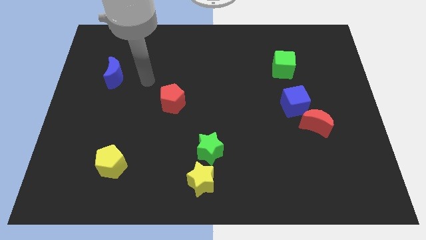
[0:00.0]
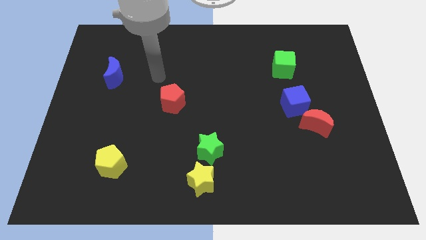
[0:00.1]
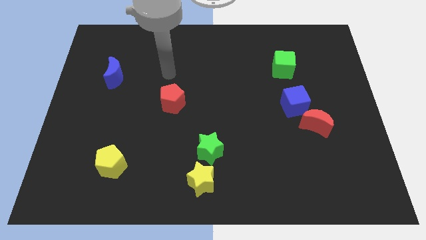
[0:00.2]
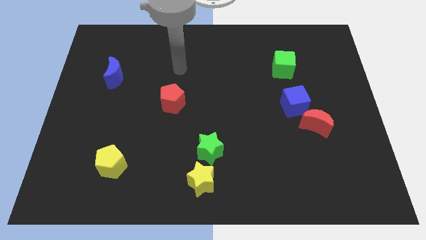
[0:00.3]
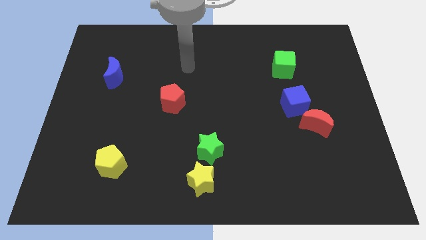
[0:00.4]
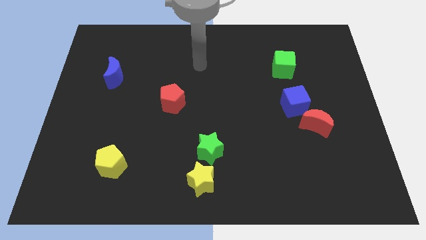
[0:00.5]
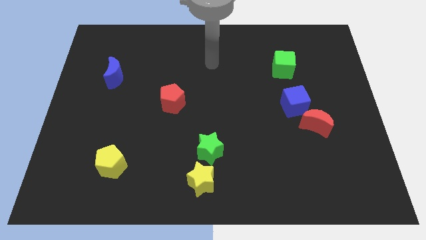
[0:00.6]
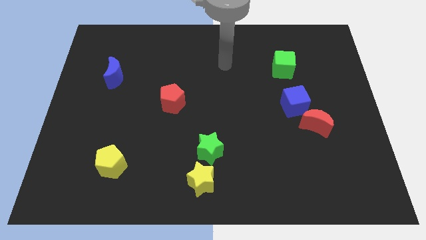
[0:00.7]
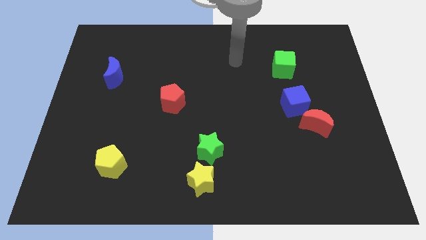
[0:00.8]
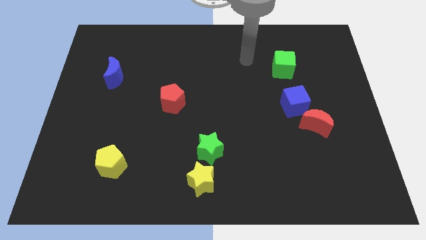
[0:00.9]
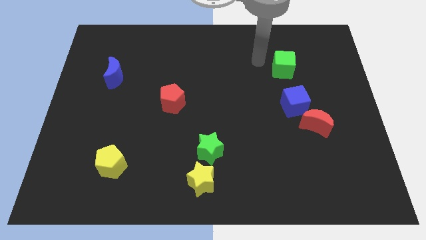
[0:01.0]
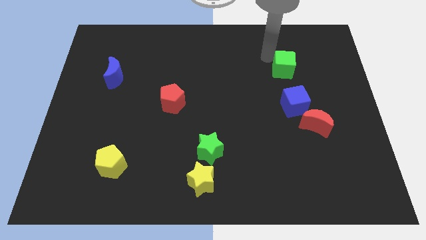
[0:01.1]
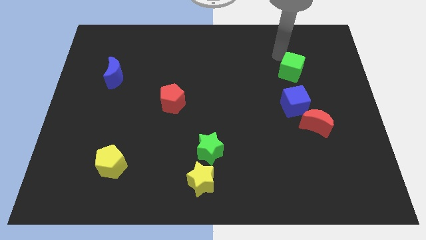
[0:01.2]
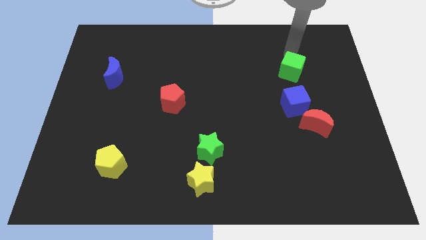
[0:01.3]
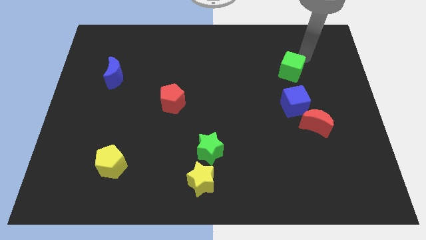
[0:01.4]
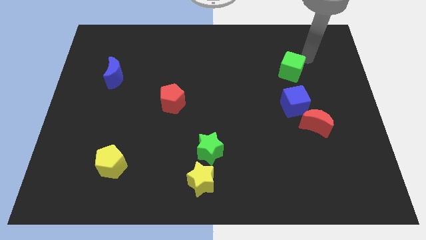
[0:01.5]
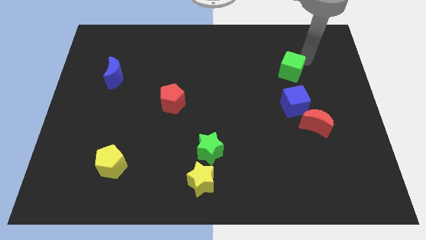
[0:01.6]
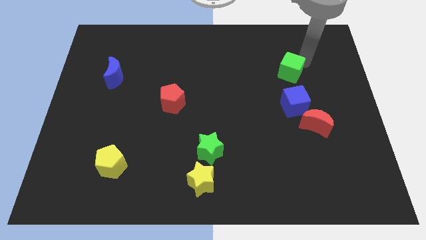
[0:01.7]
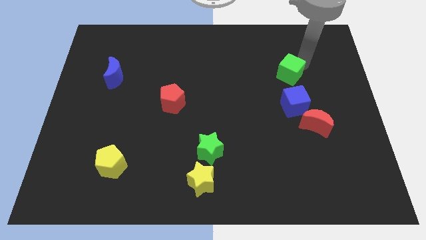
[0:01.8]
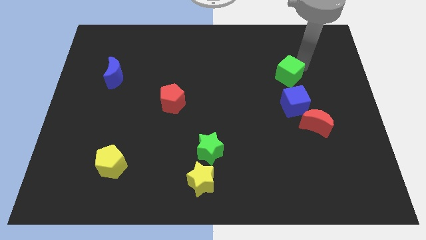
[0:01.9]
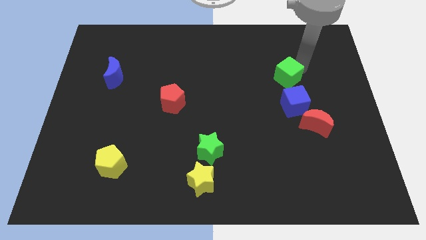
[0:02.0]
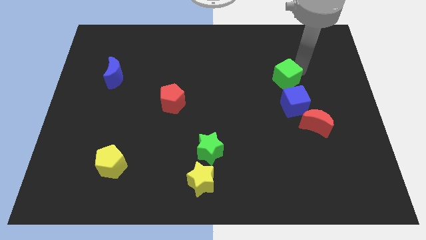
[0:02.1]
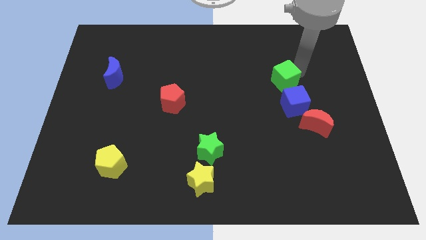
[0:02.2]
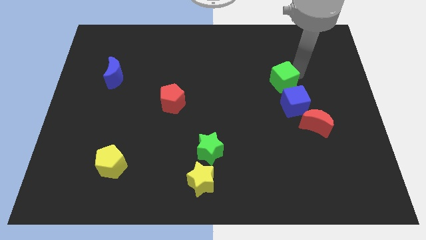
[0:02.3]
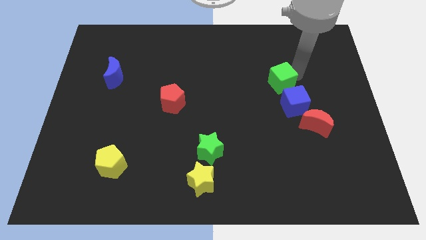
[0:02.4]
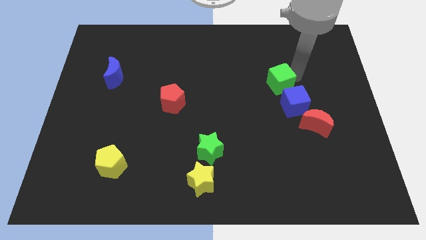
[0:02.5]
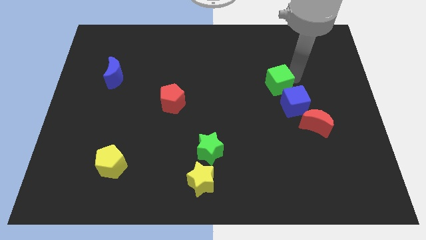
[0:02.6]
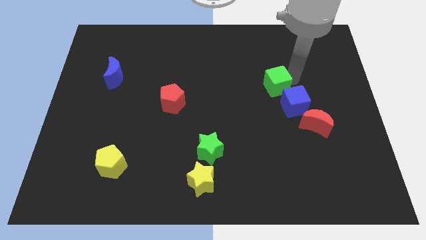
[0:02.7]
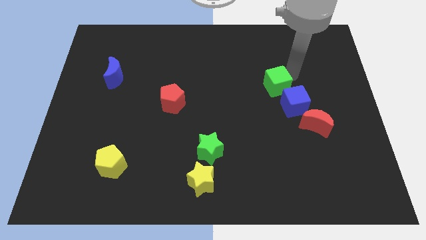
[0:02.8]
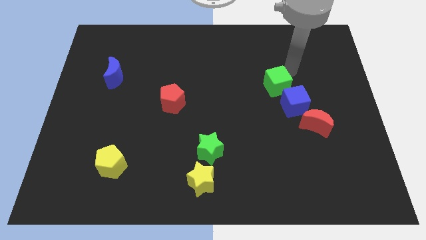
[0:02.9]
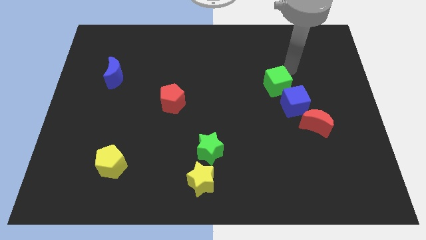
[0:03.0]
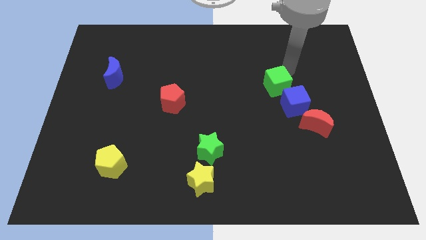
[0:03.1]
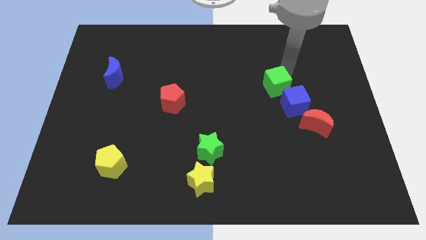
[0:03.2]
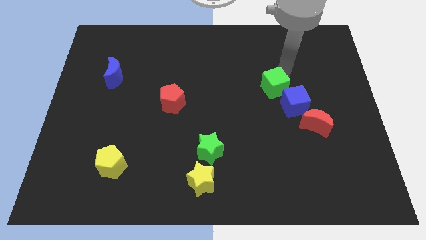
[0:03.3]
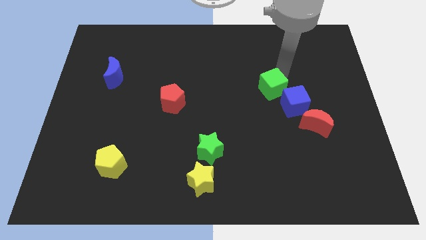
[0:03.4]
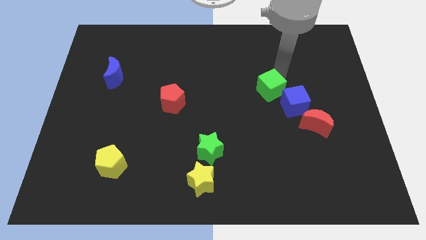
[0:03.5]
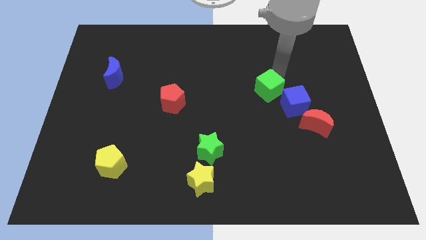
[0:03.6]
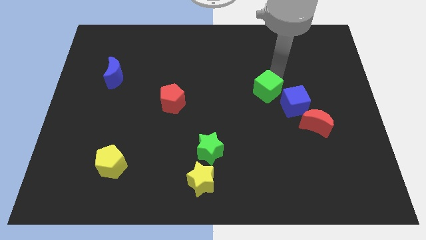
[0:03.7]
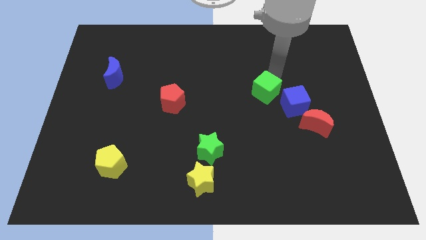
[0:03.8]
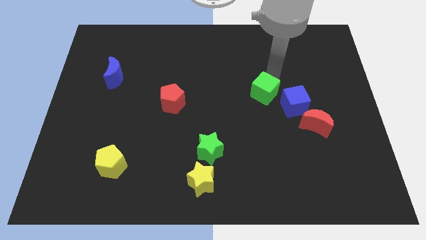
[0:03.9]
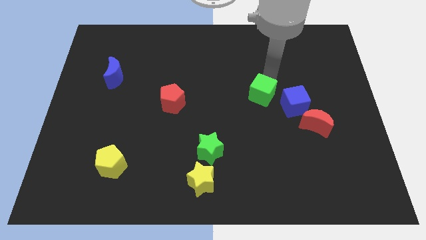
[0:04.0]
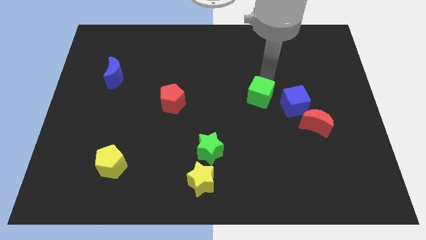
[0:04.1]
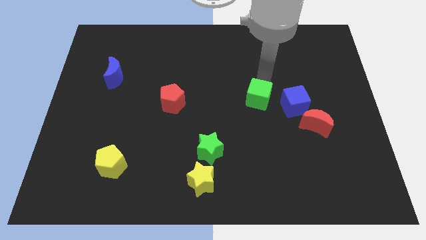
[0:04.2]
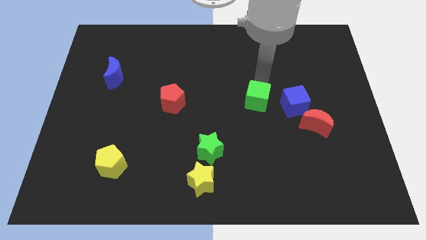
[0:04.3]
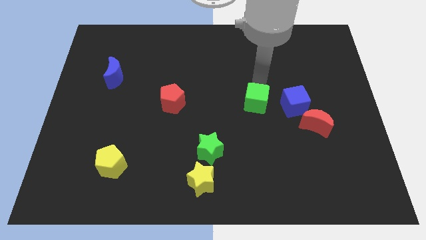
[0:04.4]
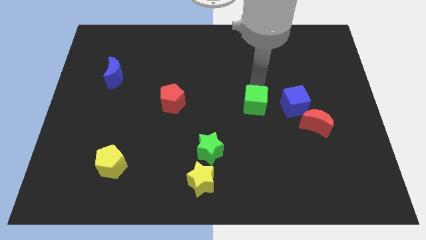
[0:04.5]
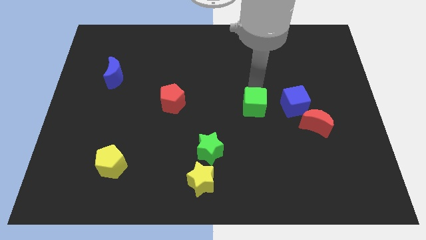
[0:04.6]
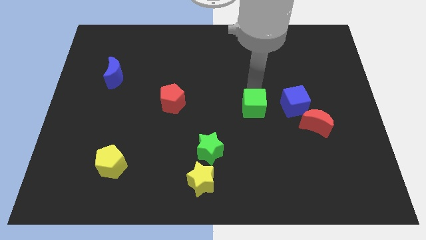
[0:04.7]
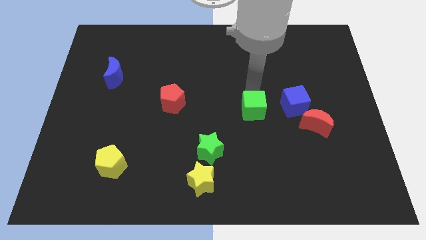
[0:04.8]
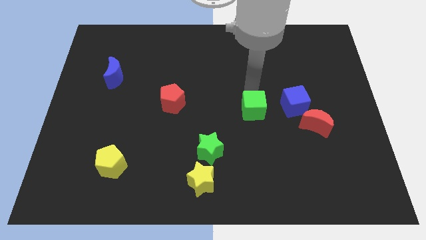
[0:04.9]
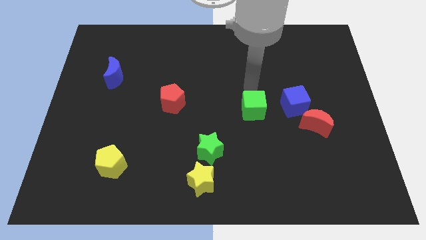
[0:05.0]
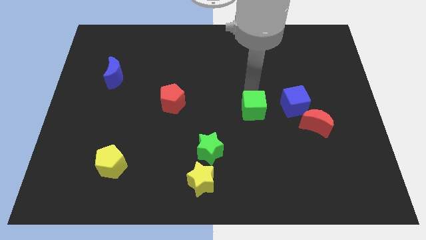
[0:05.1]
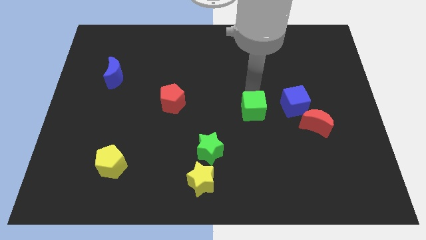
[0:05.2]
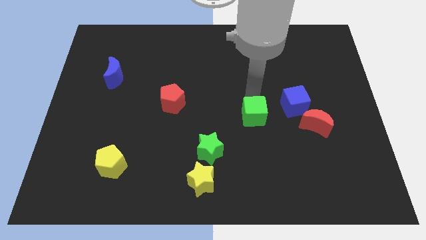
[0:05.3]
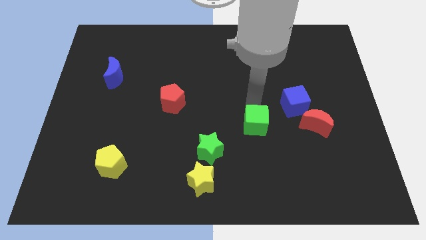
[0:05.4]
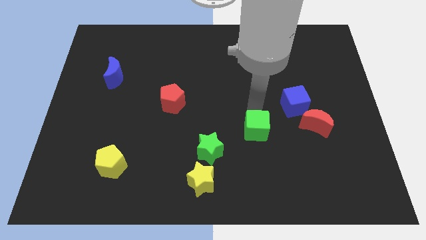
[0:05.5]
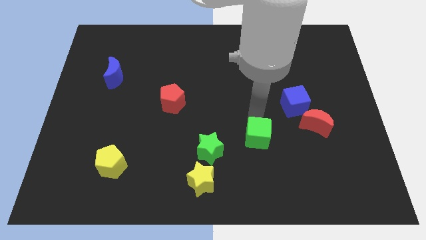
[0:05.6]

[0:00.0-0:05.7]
move the green cube right of the green star

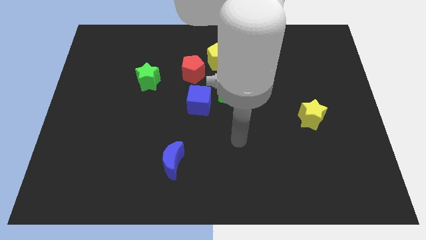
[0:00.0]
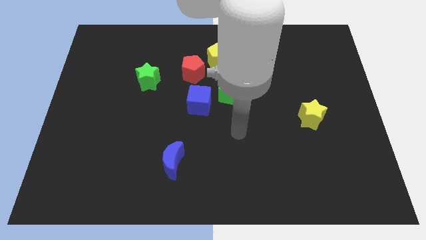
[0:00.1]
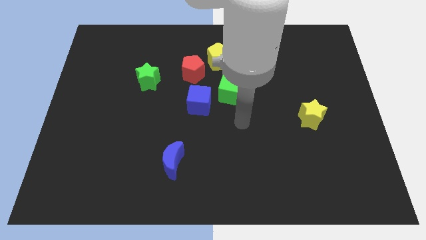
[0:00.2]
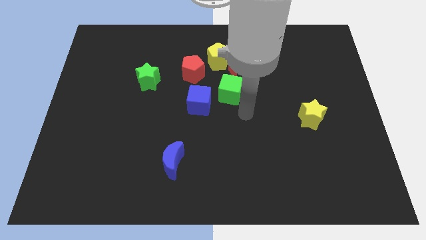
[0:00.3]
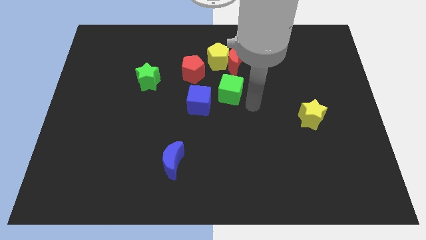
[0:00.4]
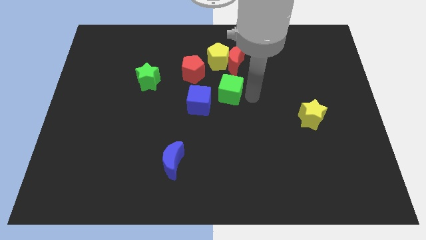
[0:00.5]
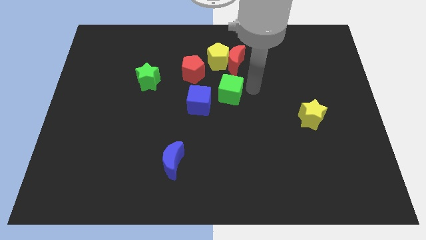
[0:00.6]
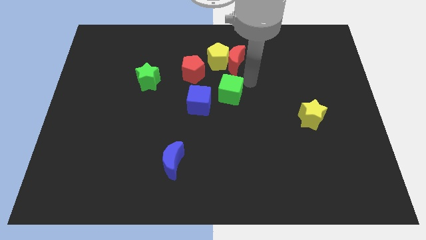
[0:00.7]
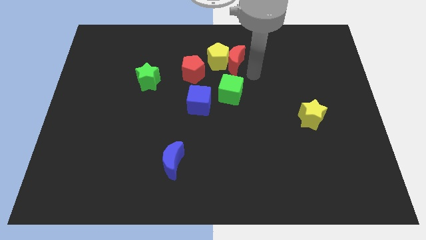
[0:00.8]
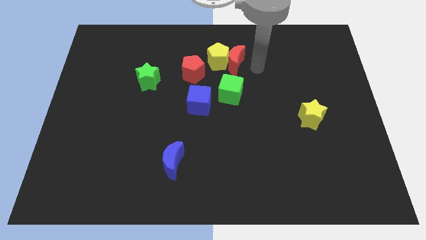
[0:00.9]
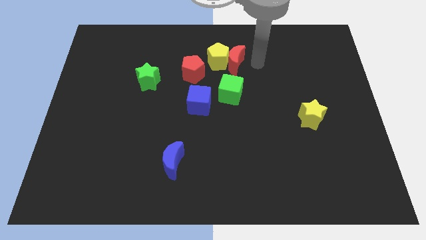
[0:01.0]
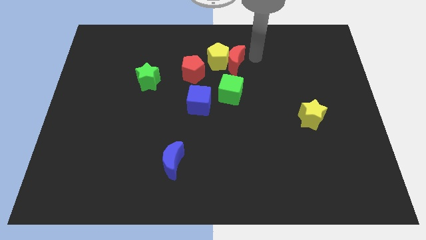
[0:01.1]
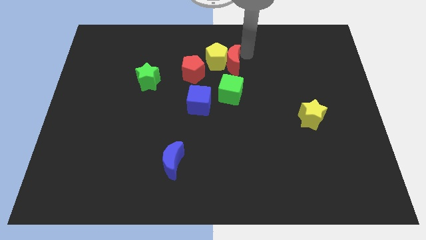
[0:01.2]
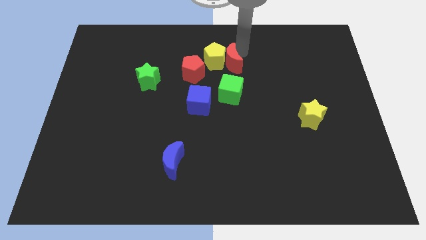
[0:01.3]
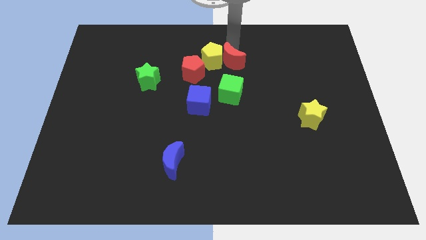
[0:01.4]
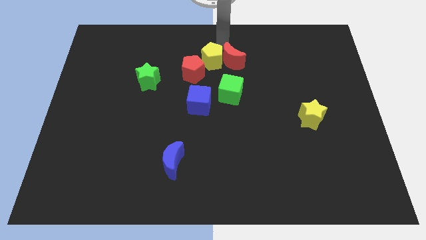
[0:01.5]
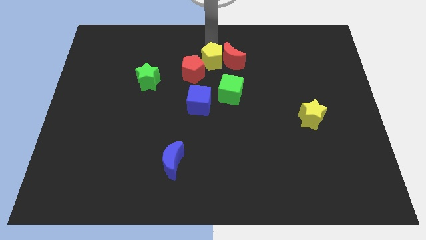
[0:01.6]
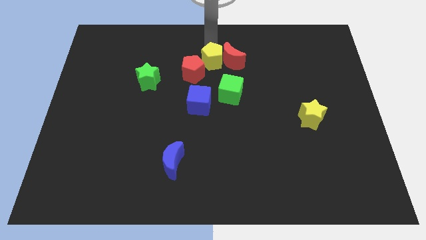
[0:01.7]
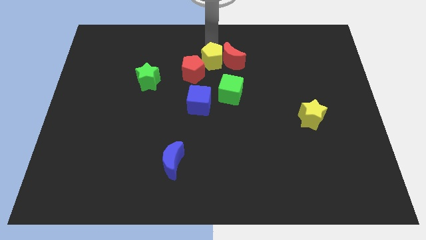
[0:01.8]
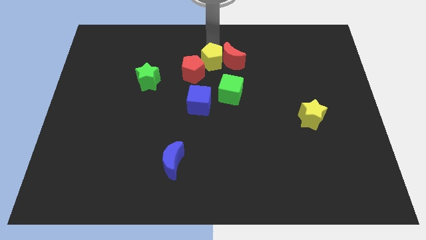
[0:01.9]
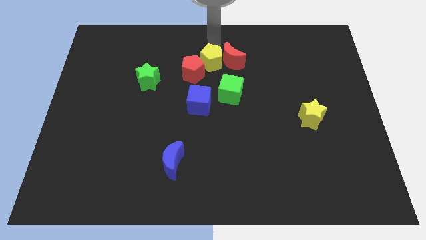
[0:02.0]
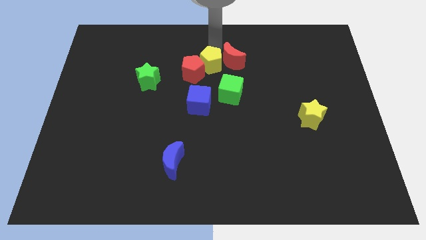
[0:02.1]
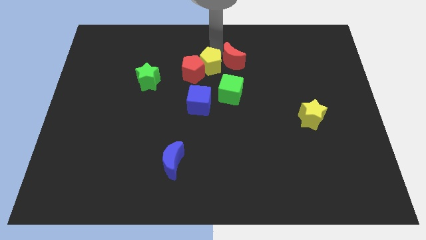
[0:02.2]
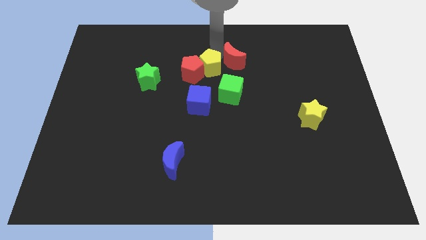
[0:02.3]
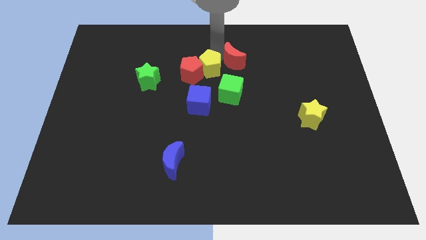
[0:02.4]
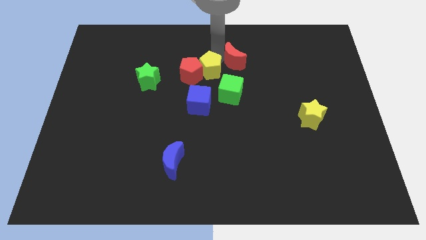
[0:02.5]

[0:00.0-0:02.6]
push the yellow pentagon to the bottom right of the red pentagon
